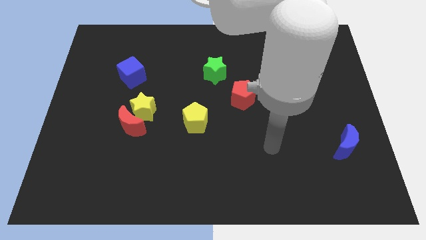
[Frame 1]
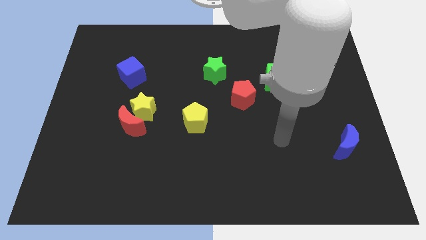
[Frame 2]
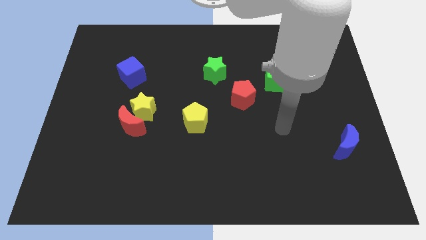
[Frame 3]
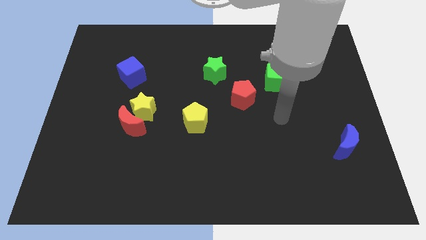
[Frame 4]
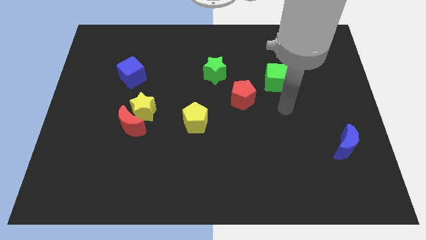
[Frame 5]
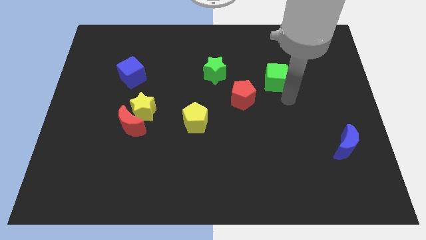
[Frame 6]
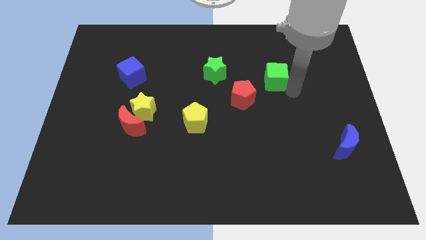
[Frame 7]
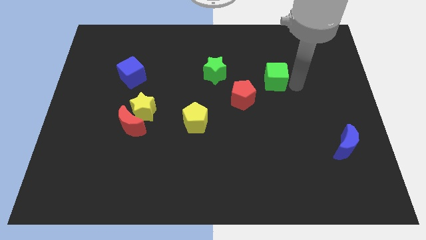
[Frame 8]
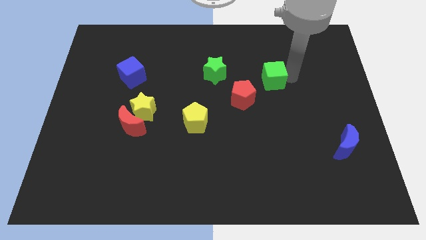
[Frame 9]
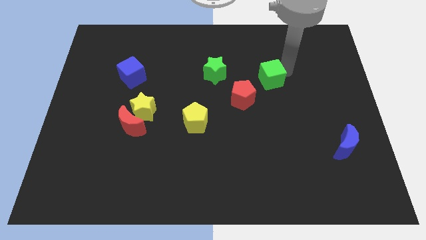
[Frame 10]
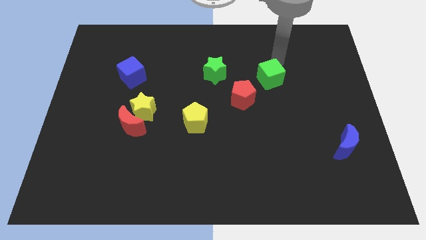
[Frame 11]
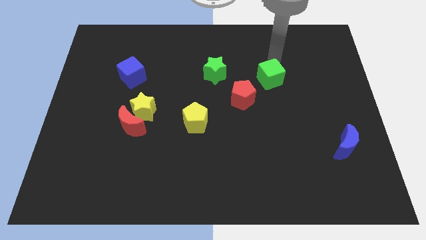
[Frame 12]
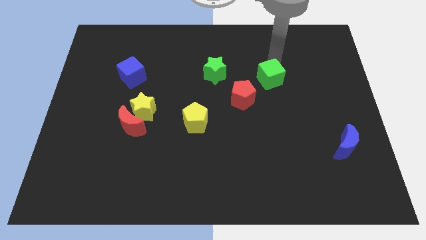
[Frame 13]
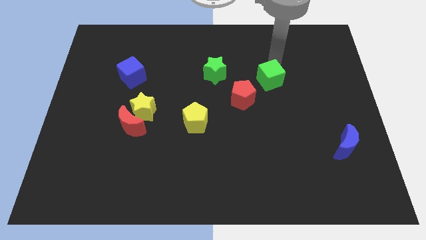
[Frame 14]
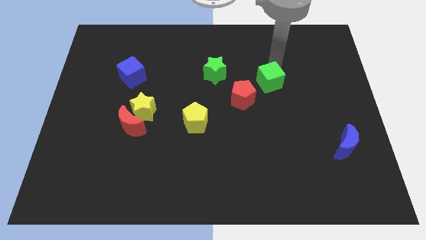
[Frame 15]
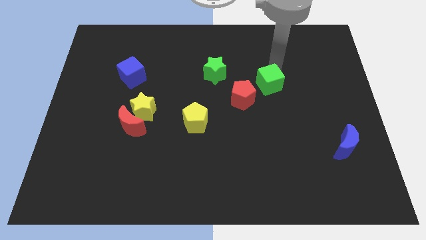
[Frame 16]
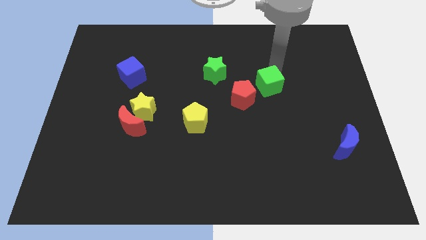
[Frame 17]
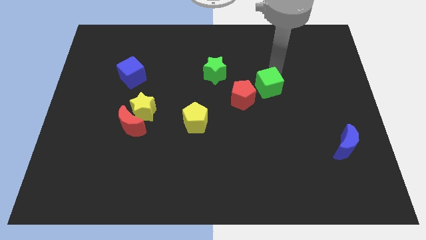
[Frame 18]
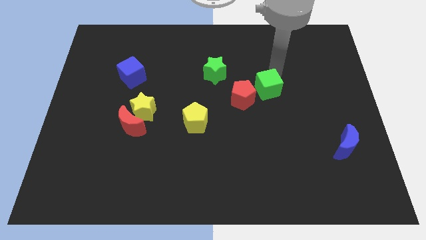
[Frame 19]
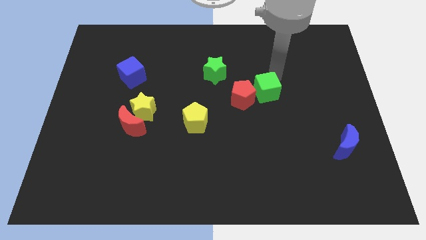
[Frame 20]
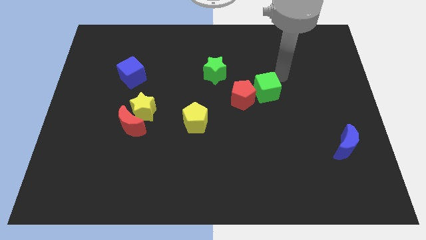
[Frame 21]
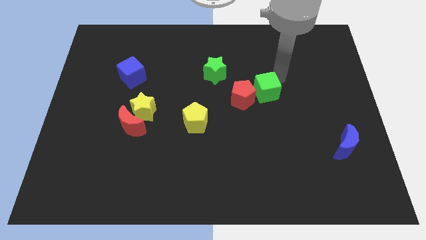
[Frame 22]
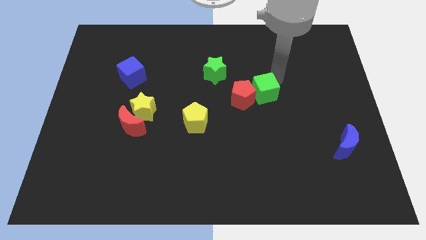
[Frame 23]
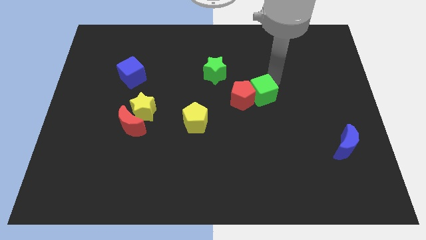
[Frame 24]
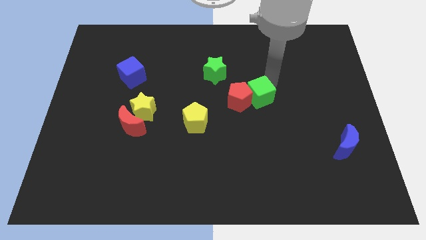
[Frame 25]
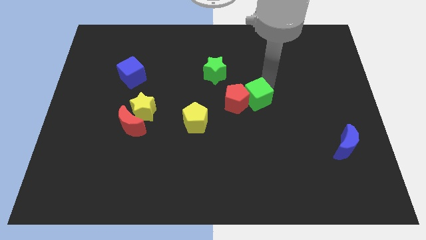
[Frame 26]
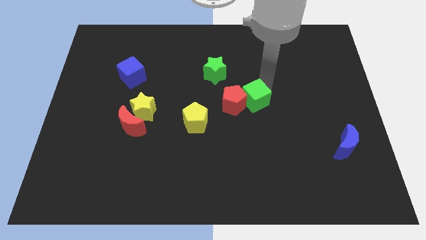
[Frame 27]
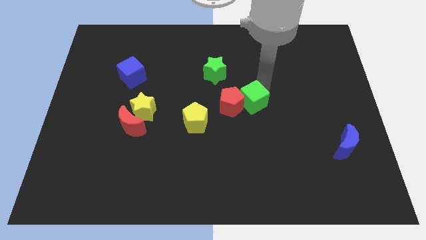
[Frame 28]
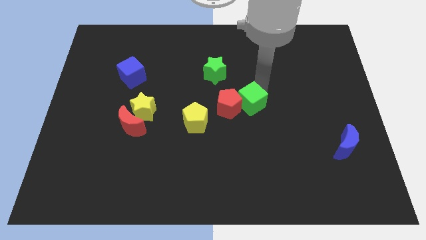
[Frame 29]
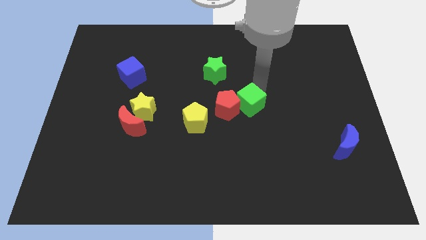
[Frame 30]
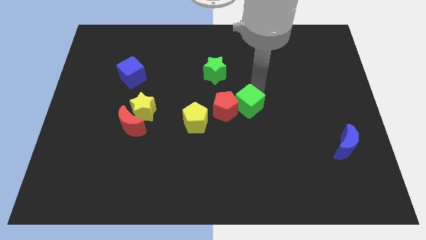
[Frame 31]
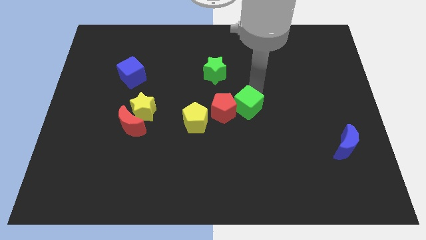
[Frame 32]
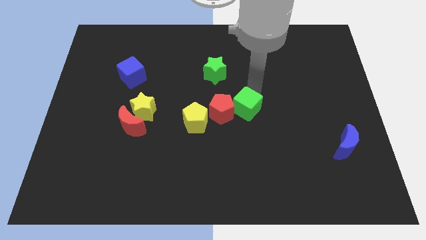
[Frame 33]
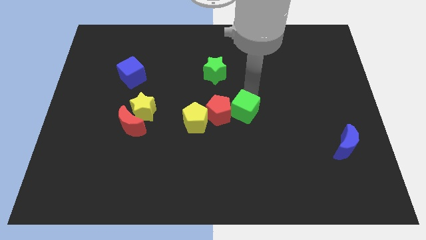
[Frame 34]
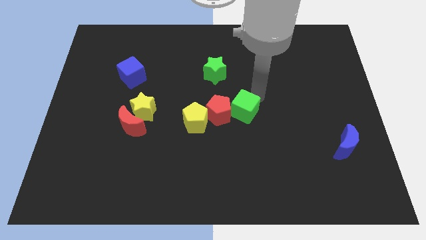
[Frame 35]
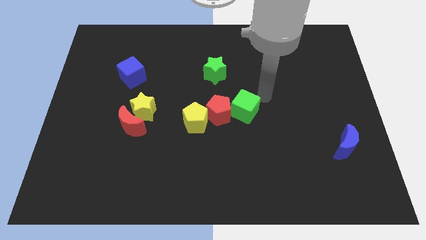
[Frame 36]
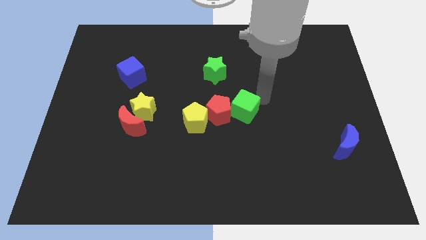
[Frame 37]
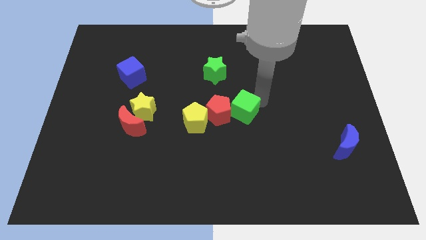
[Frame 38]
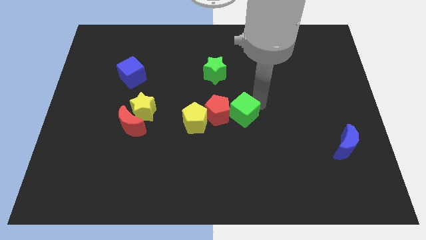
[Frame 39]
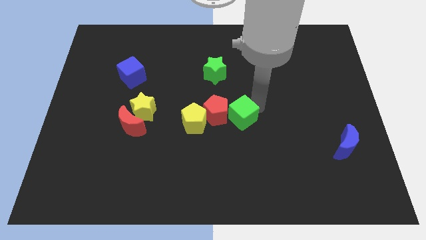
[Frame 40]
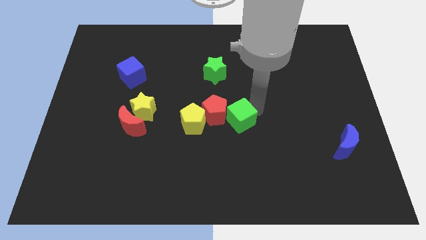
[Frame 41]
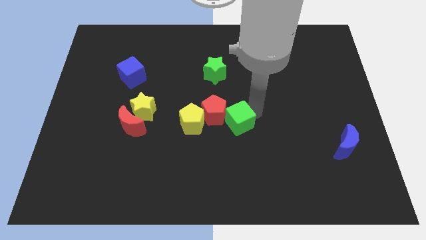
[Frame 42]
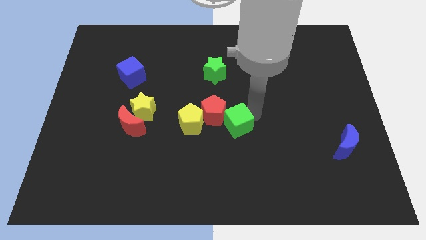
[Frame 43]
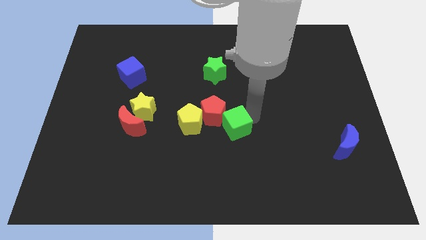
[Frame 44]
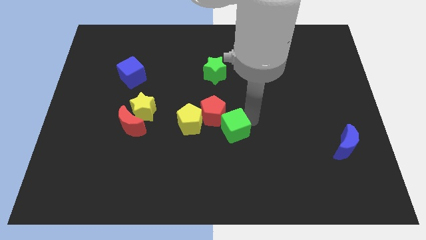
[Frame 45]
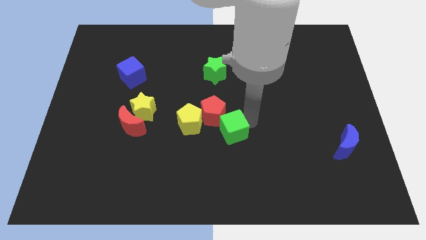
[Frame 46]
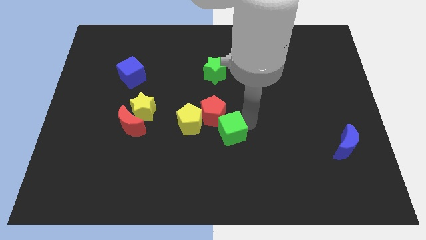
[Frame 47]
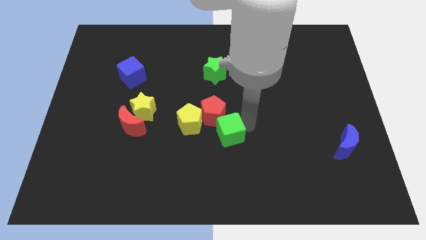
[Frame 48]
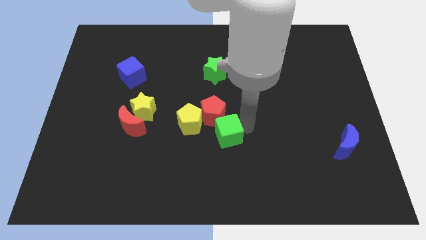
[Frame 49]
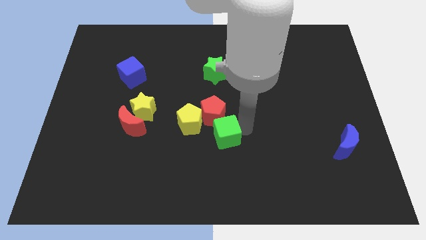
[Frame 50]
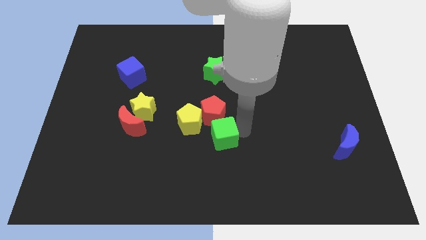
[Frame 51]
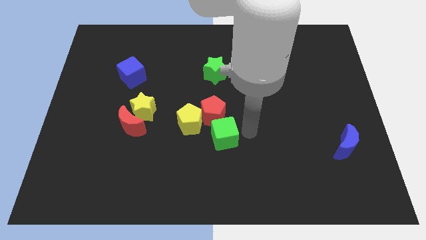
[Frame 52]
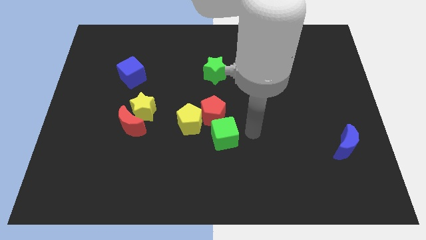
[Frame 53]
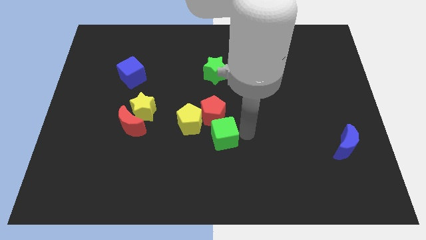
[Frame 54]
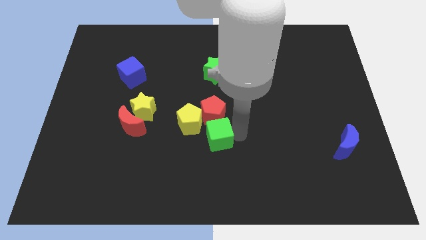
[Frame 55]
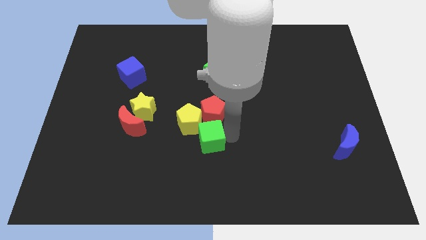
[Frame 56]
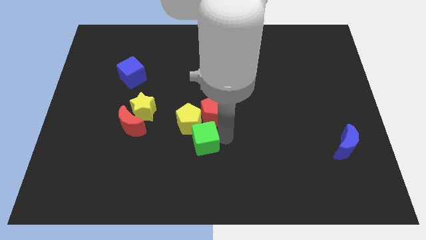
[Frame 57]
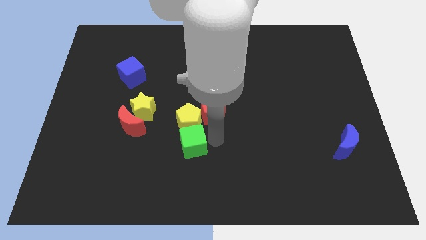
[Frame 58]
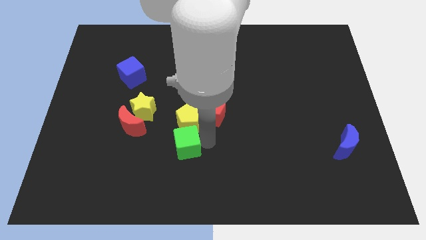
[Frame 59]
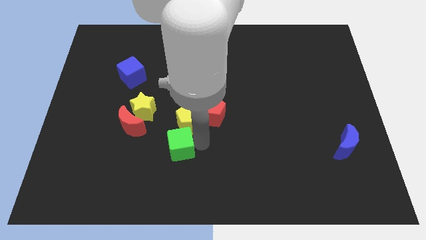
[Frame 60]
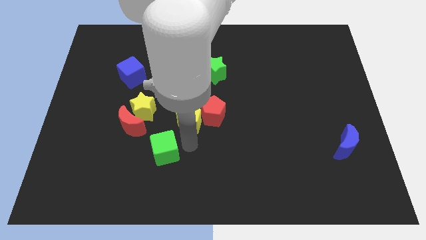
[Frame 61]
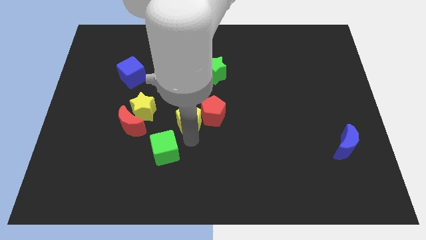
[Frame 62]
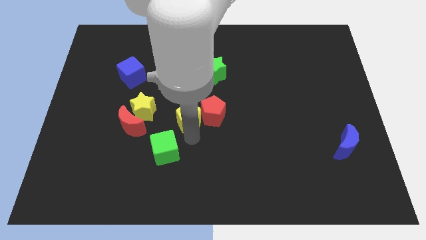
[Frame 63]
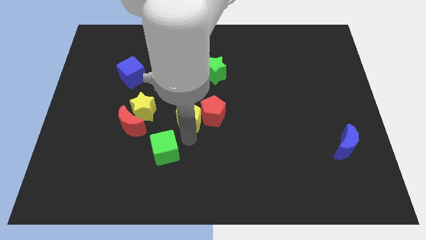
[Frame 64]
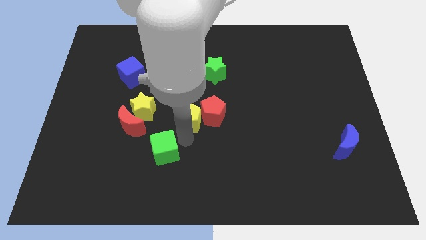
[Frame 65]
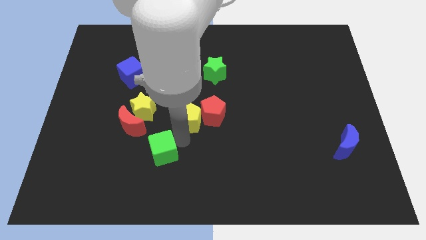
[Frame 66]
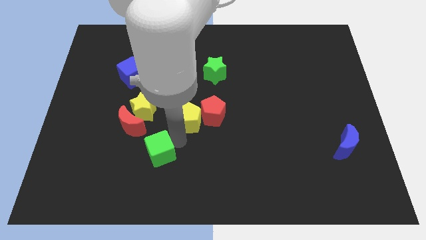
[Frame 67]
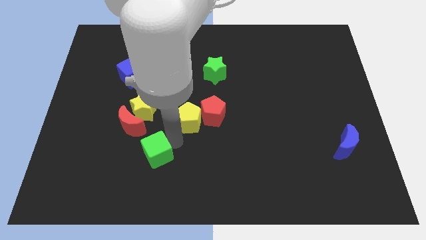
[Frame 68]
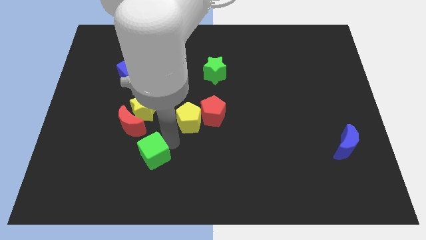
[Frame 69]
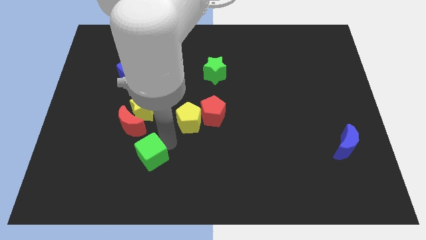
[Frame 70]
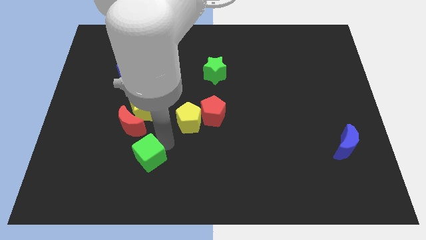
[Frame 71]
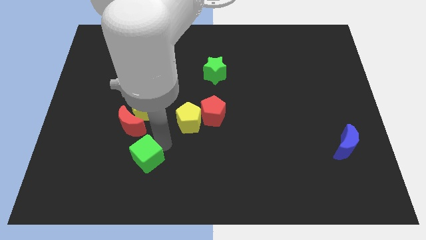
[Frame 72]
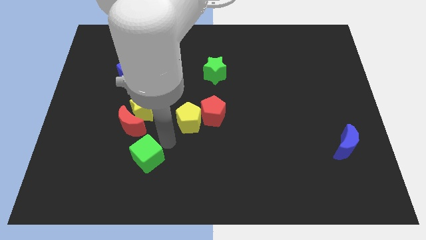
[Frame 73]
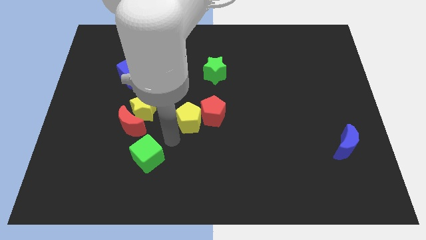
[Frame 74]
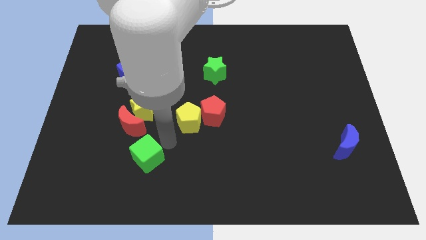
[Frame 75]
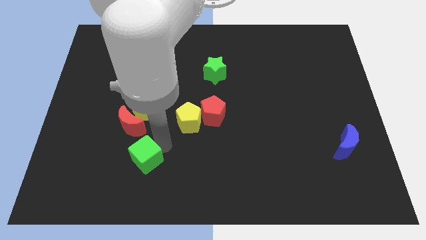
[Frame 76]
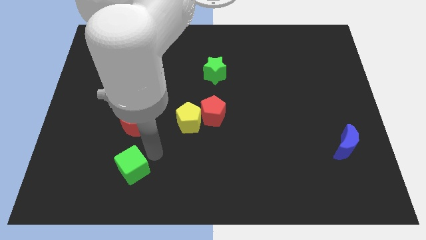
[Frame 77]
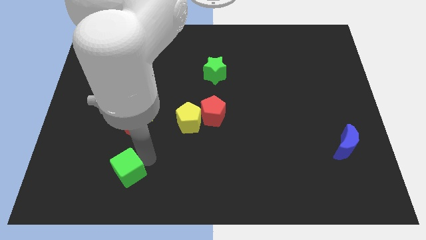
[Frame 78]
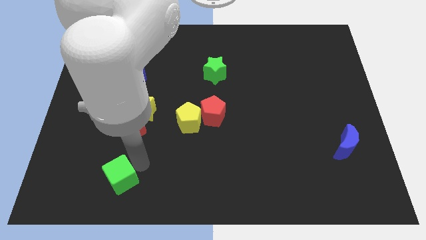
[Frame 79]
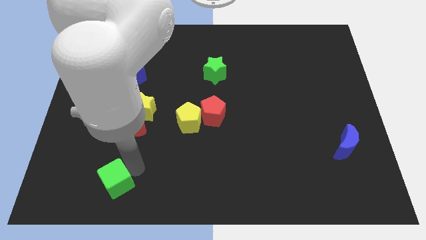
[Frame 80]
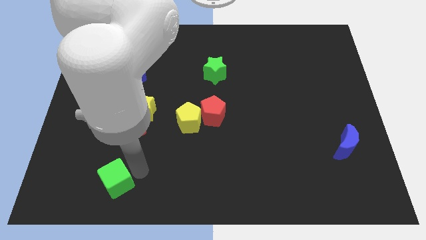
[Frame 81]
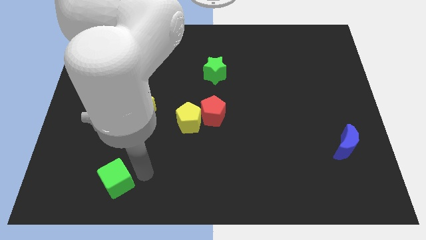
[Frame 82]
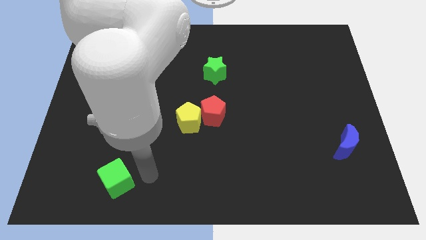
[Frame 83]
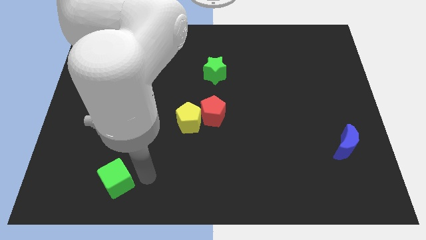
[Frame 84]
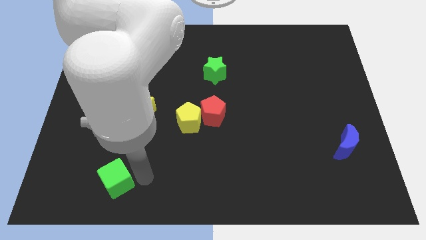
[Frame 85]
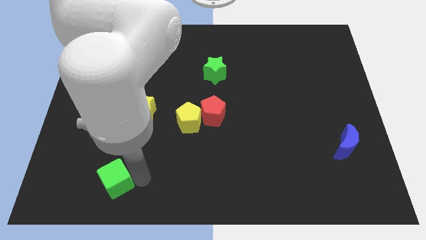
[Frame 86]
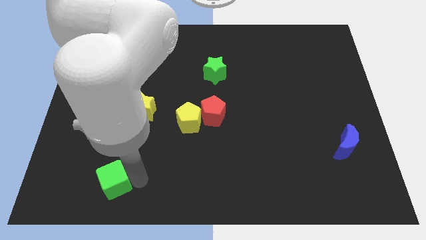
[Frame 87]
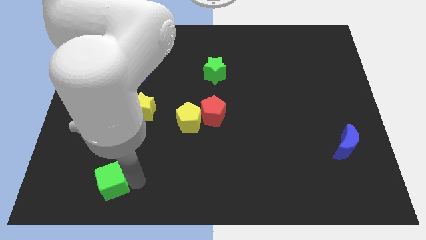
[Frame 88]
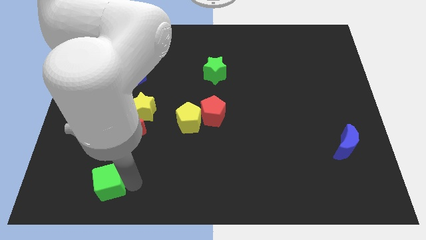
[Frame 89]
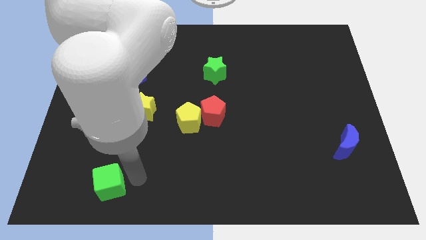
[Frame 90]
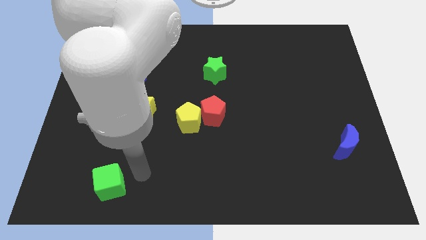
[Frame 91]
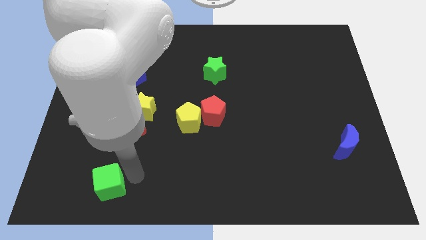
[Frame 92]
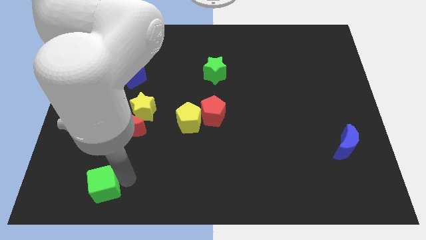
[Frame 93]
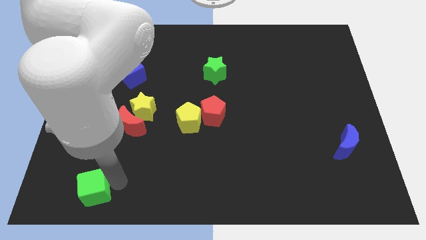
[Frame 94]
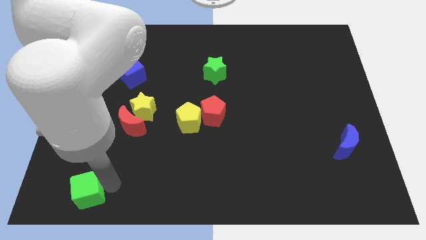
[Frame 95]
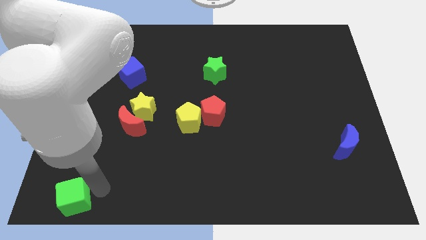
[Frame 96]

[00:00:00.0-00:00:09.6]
move the green cube to the bottom left
